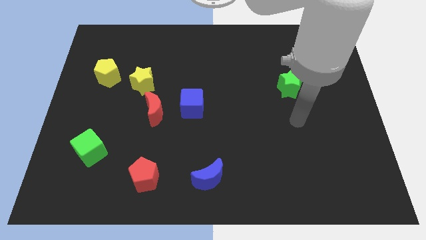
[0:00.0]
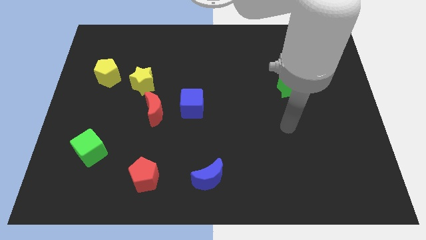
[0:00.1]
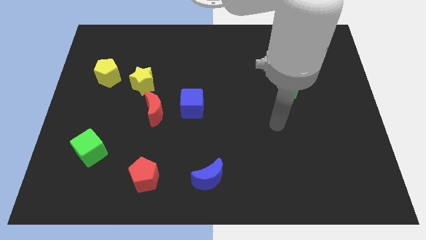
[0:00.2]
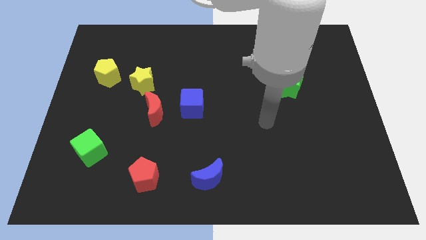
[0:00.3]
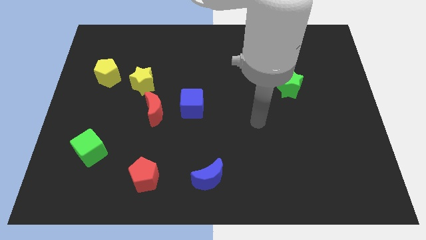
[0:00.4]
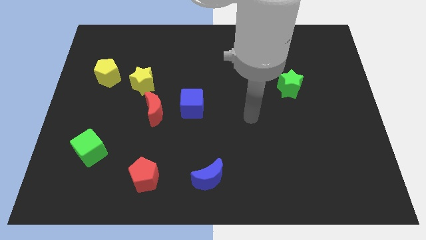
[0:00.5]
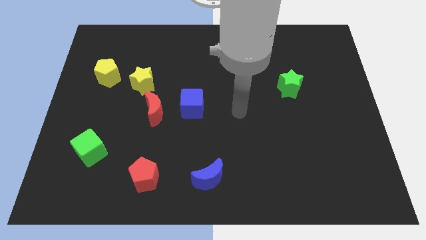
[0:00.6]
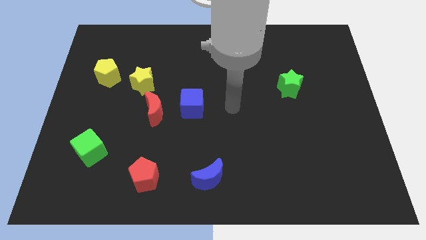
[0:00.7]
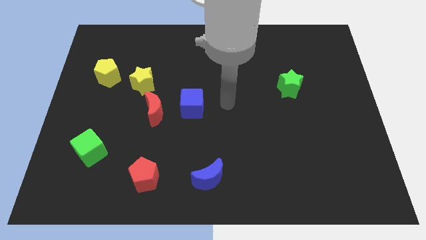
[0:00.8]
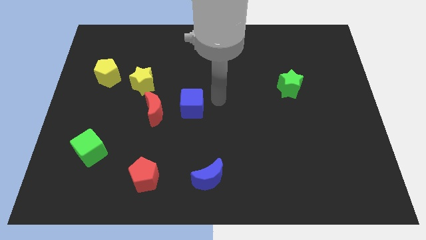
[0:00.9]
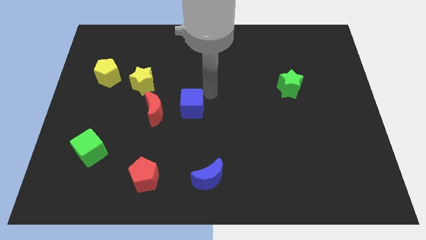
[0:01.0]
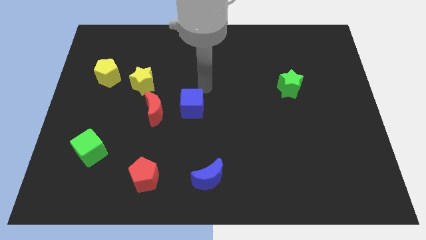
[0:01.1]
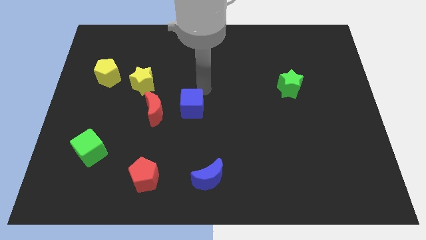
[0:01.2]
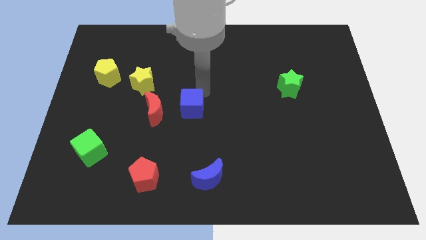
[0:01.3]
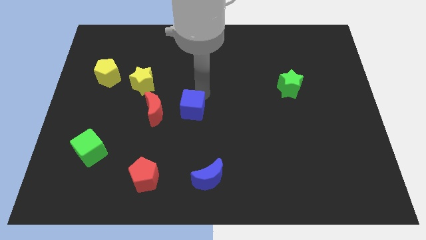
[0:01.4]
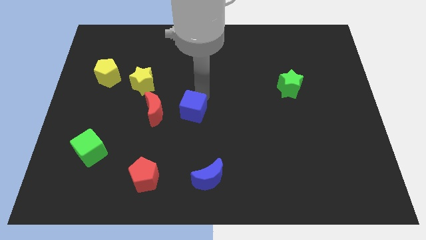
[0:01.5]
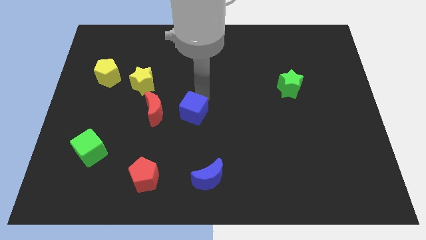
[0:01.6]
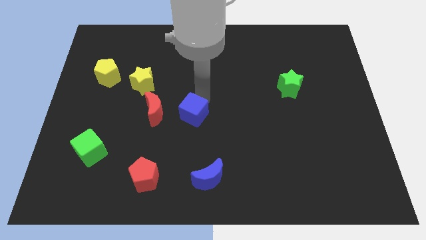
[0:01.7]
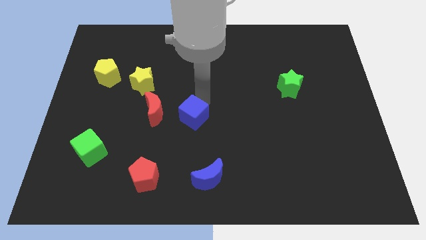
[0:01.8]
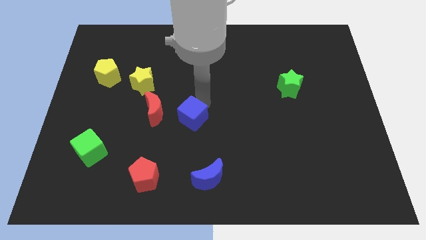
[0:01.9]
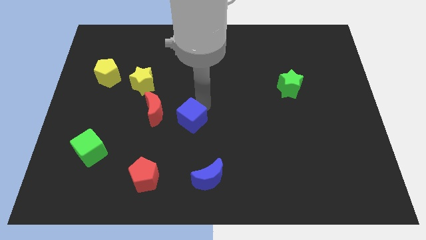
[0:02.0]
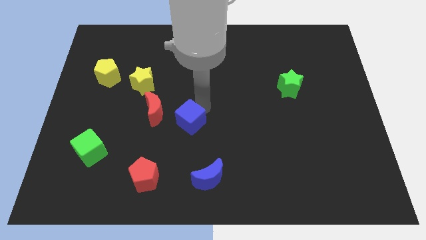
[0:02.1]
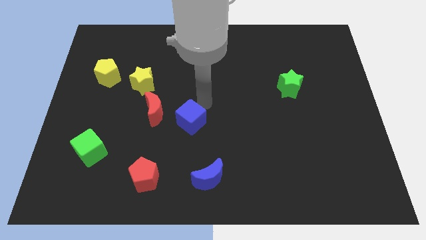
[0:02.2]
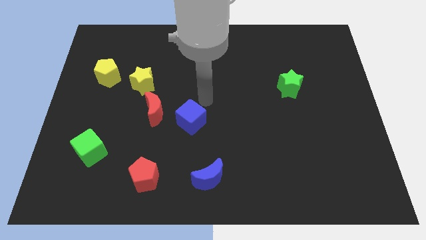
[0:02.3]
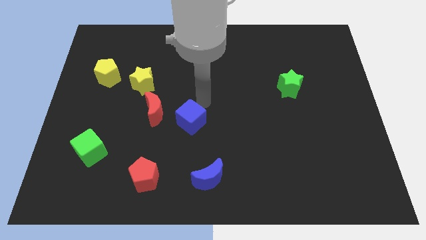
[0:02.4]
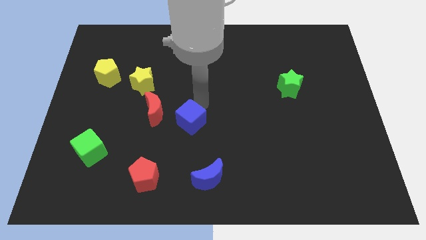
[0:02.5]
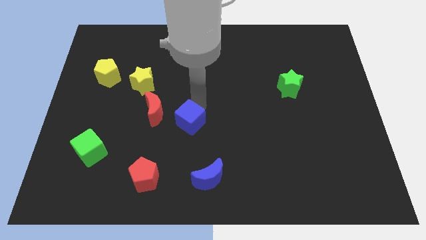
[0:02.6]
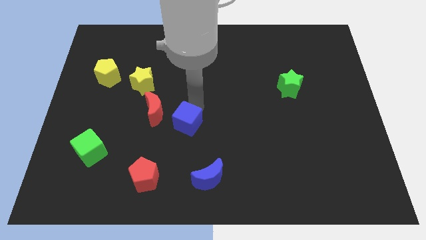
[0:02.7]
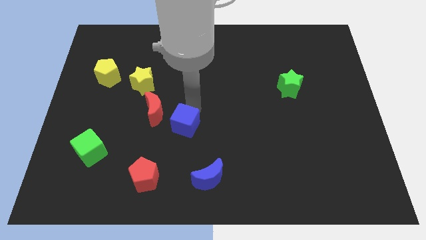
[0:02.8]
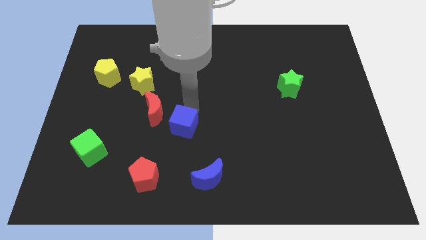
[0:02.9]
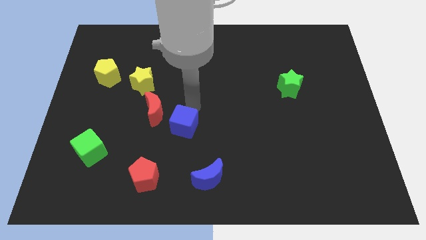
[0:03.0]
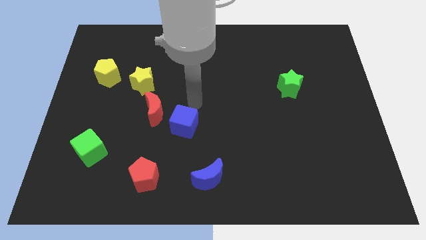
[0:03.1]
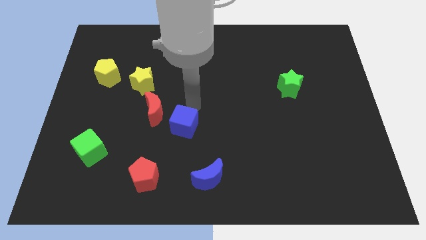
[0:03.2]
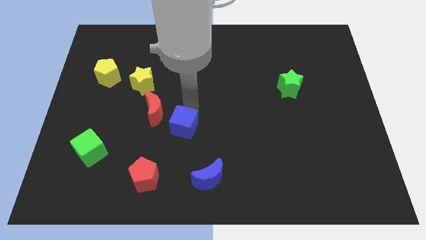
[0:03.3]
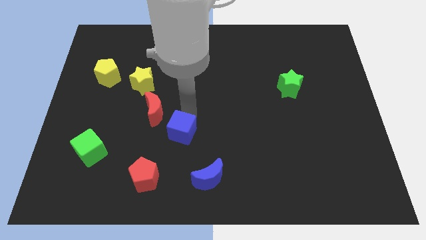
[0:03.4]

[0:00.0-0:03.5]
slide the blue cube downwards a little bit

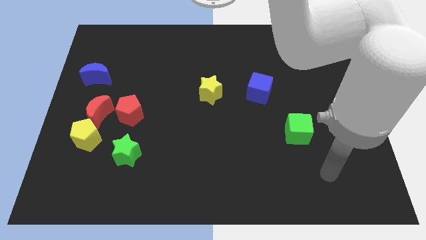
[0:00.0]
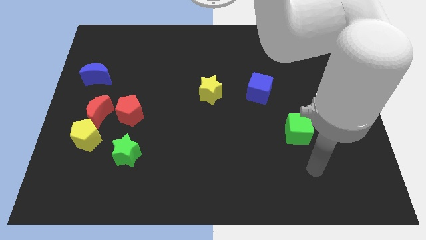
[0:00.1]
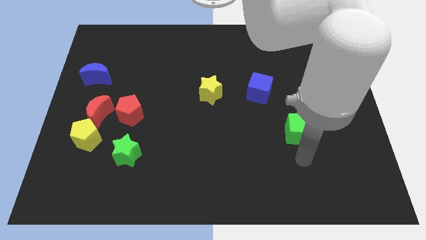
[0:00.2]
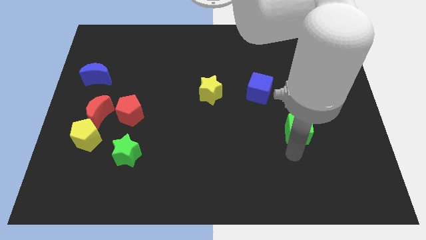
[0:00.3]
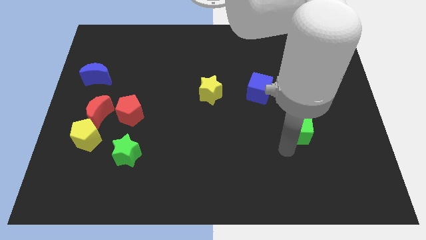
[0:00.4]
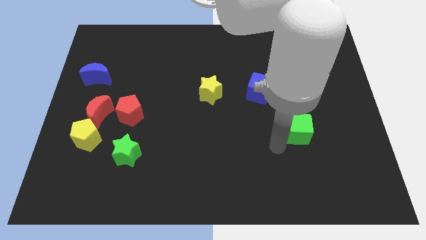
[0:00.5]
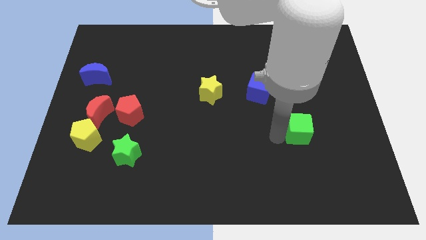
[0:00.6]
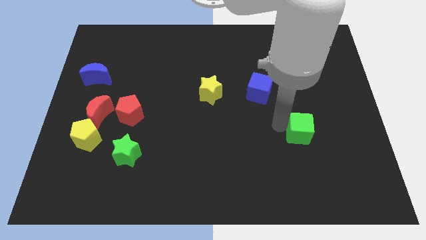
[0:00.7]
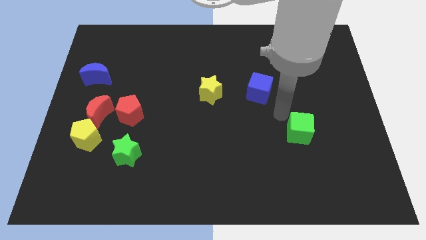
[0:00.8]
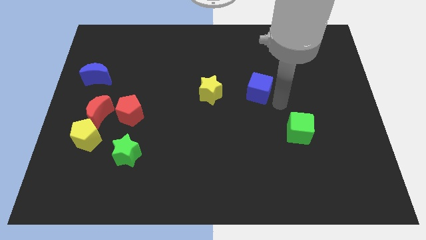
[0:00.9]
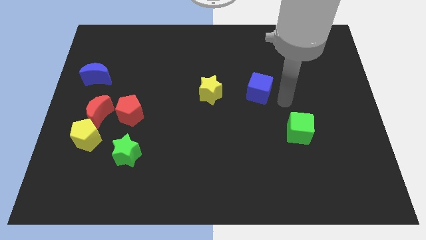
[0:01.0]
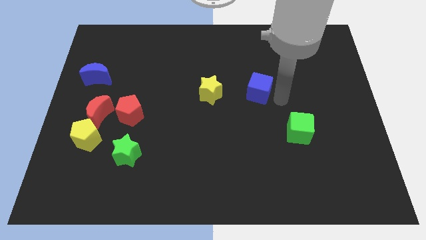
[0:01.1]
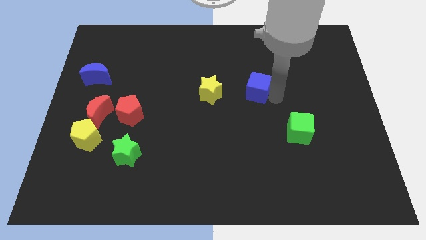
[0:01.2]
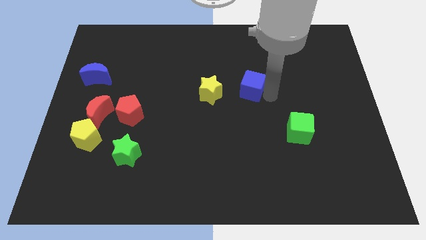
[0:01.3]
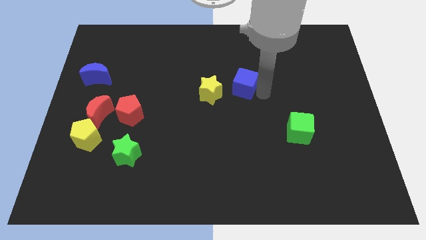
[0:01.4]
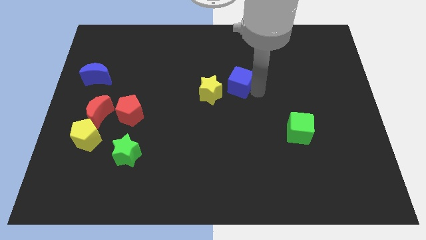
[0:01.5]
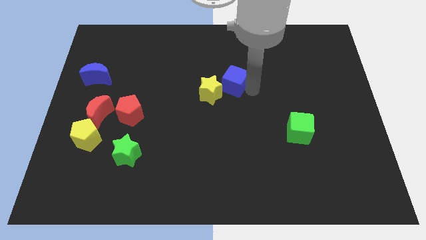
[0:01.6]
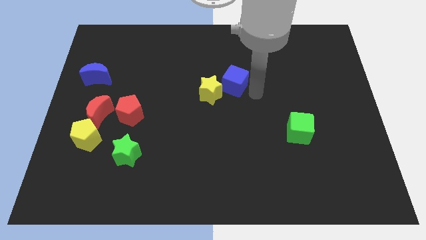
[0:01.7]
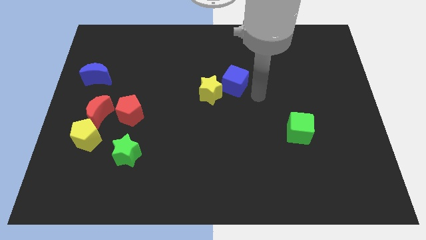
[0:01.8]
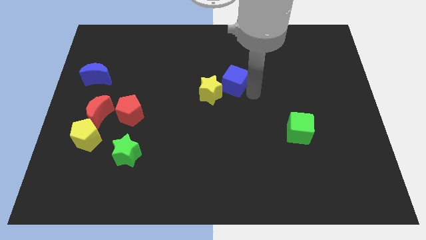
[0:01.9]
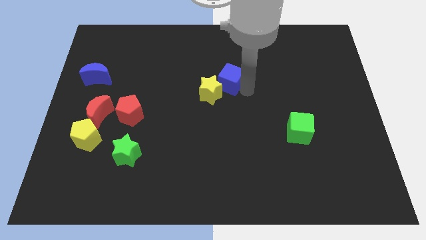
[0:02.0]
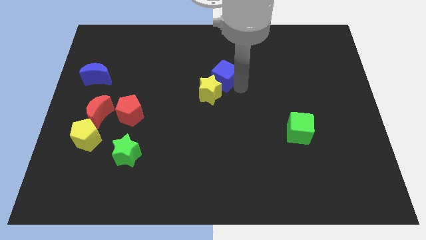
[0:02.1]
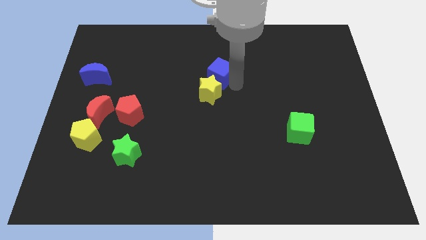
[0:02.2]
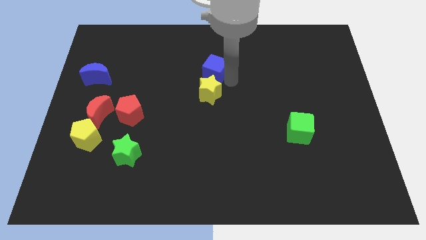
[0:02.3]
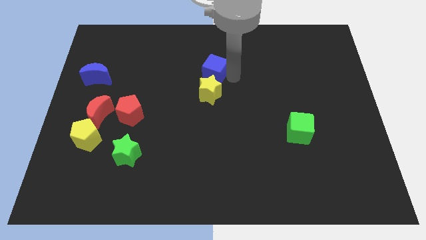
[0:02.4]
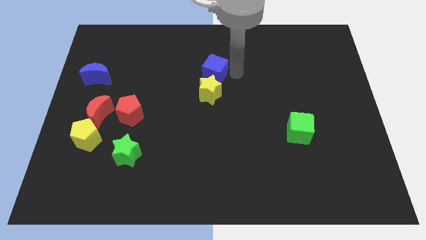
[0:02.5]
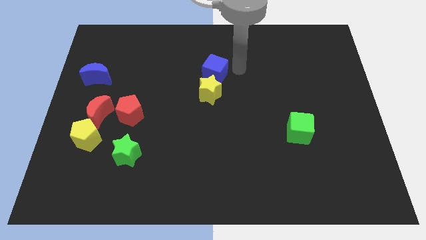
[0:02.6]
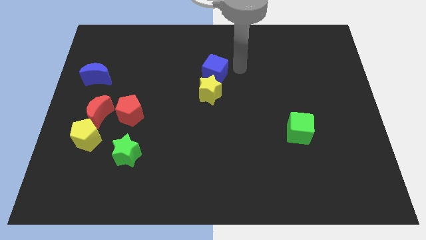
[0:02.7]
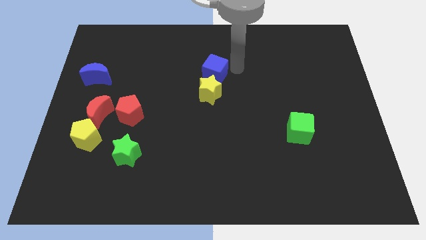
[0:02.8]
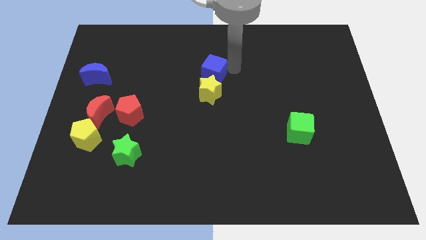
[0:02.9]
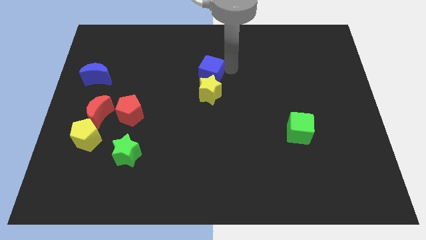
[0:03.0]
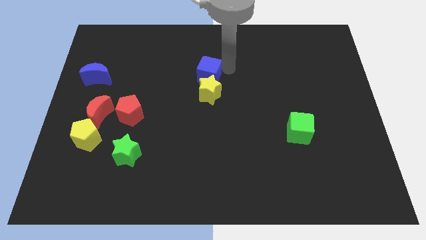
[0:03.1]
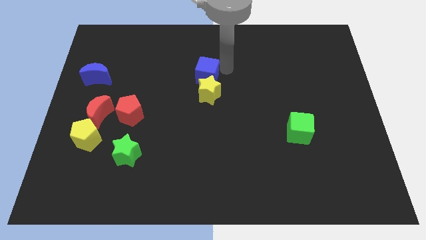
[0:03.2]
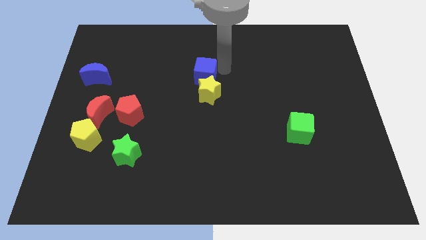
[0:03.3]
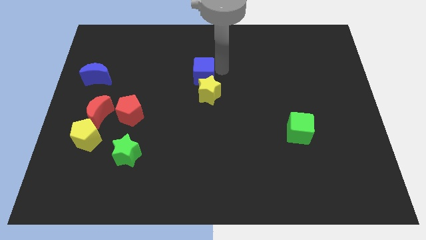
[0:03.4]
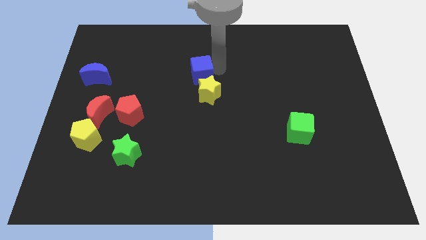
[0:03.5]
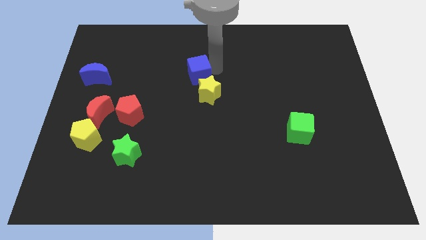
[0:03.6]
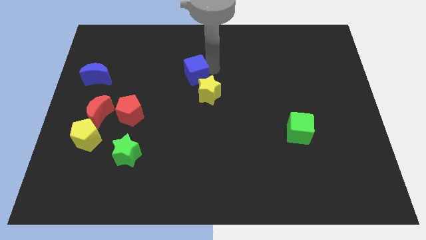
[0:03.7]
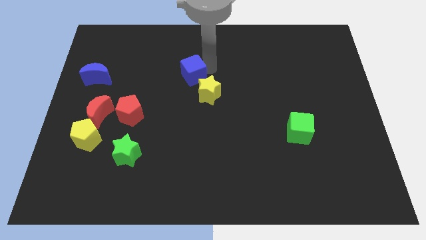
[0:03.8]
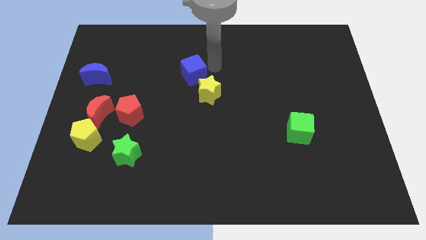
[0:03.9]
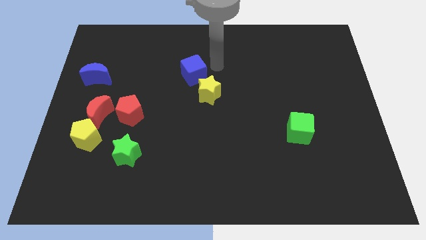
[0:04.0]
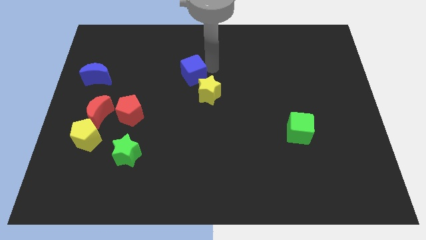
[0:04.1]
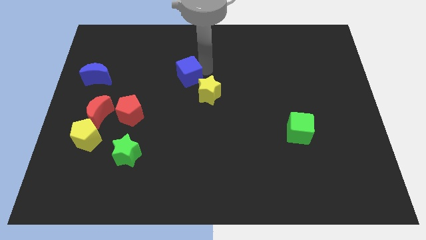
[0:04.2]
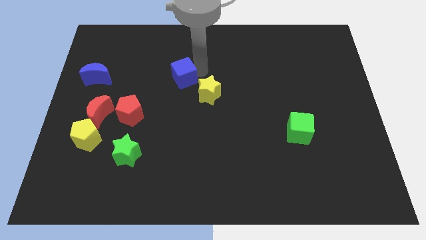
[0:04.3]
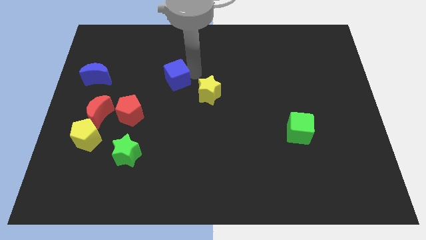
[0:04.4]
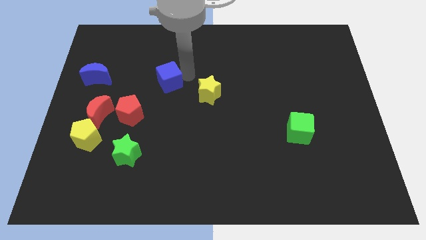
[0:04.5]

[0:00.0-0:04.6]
slide the blue cube to the left
